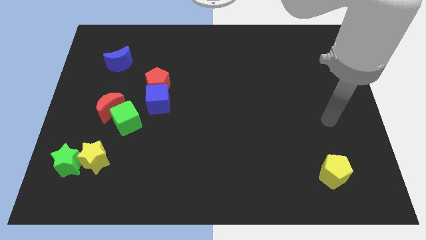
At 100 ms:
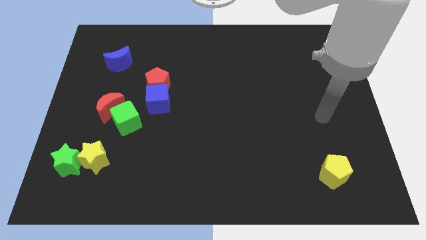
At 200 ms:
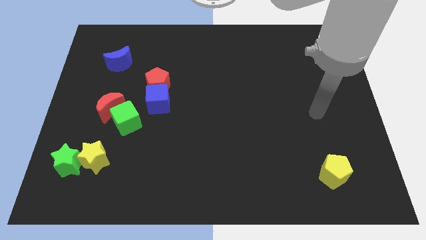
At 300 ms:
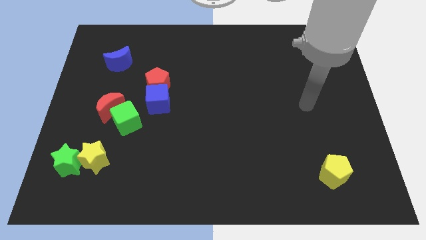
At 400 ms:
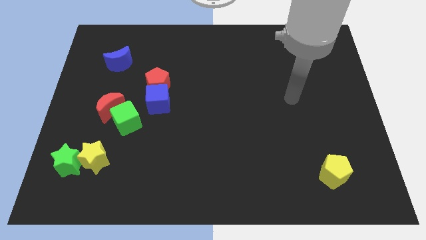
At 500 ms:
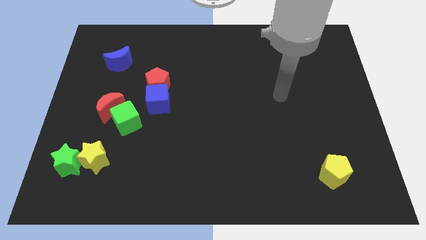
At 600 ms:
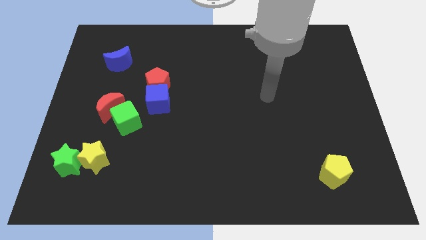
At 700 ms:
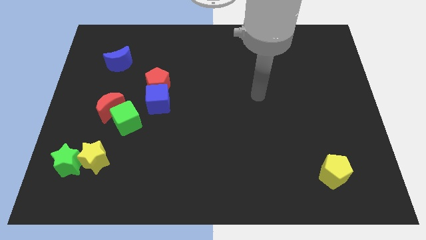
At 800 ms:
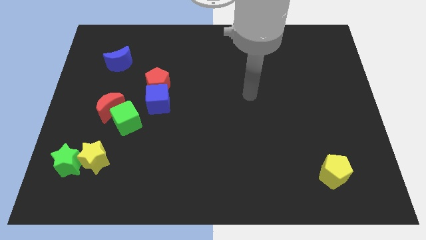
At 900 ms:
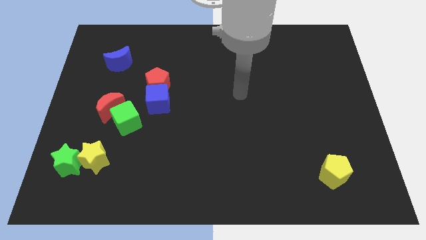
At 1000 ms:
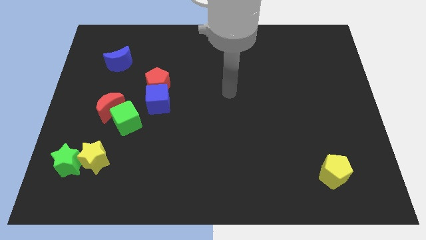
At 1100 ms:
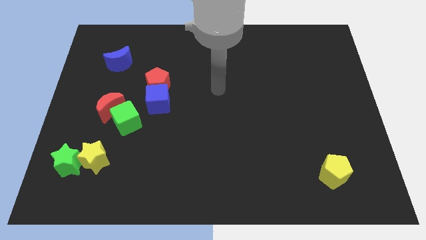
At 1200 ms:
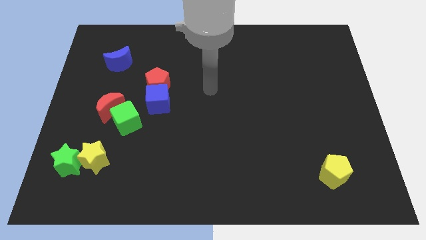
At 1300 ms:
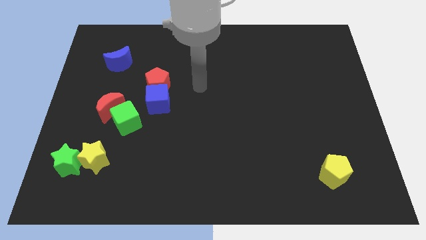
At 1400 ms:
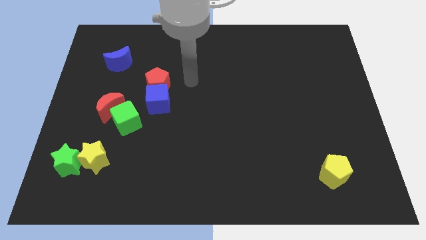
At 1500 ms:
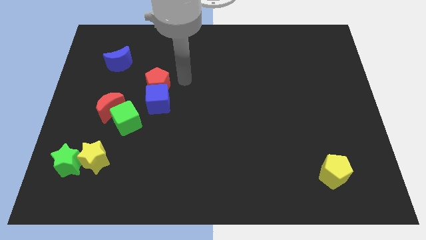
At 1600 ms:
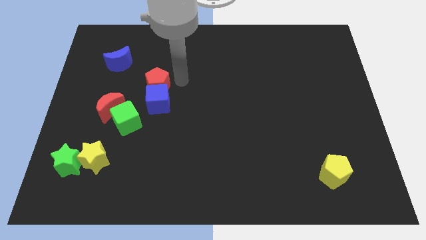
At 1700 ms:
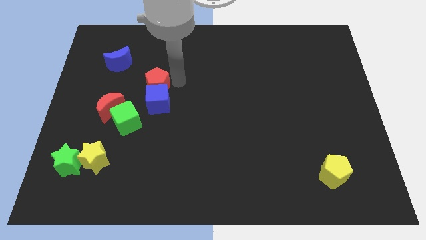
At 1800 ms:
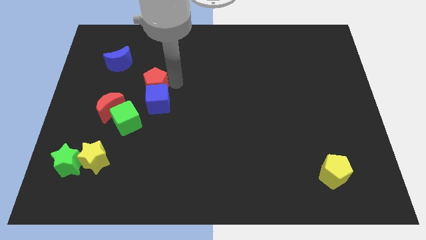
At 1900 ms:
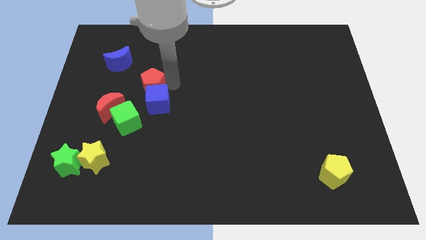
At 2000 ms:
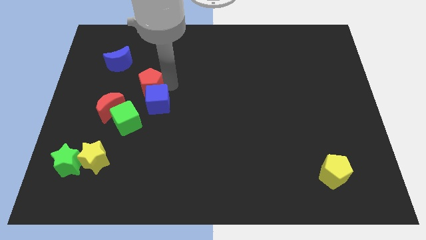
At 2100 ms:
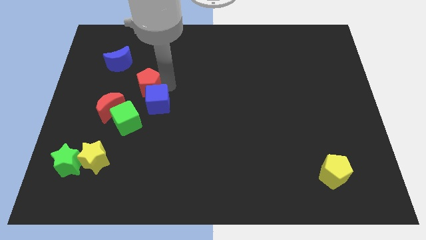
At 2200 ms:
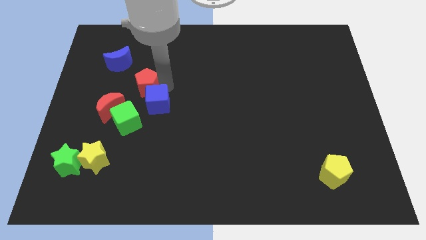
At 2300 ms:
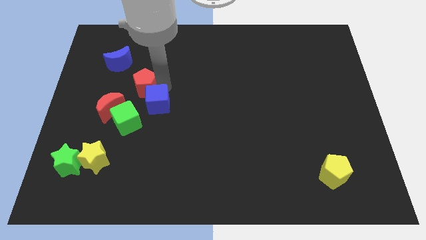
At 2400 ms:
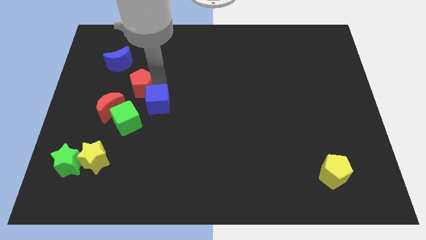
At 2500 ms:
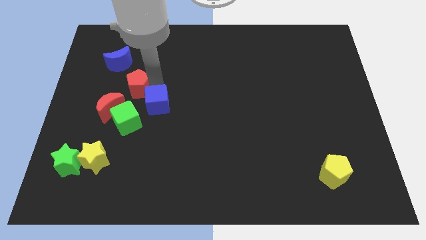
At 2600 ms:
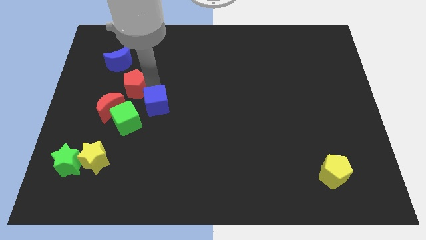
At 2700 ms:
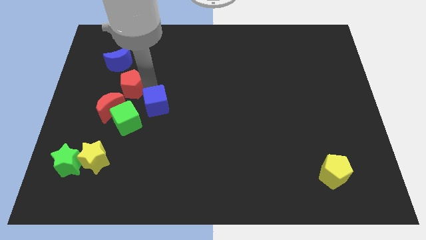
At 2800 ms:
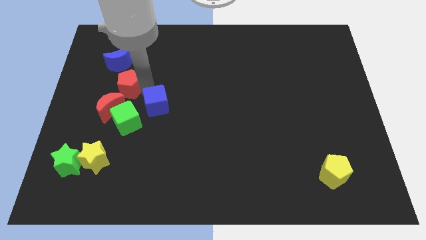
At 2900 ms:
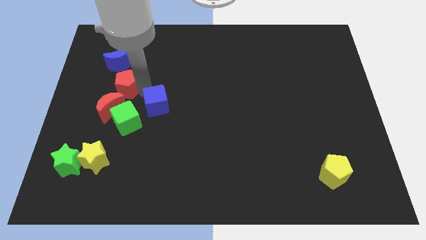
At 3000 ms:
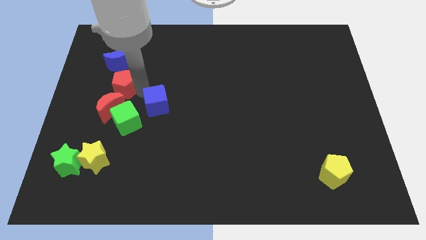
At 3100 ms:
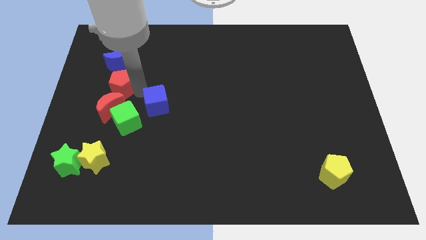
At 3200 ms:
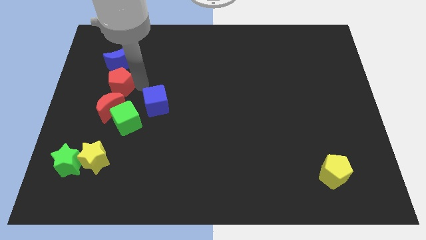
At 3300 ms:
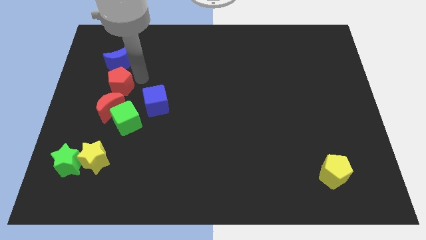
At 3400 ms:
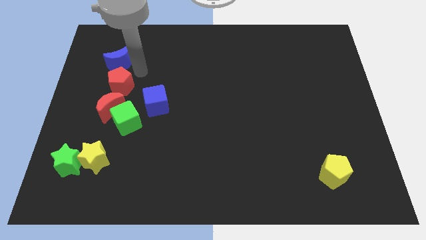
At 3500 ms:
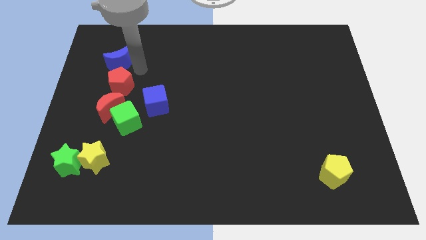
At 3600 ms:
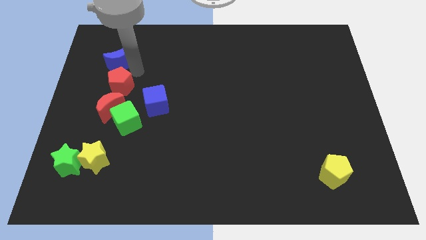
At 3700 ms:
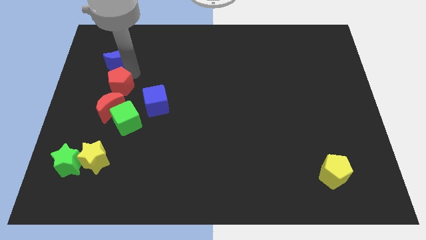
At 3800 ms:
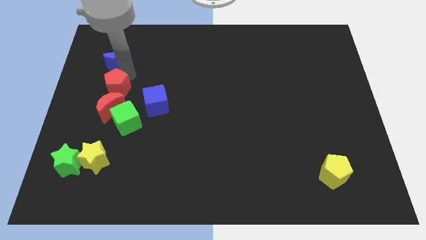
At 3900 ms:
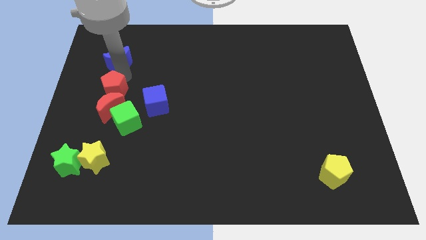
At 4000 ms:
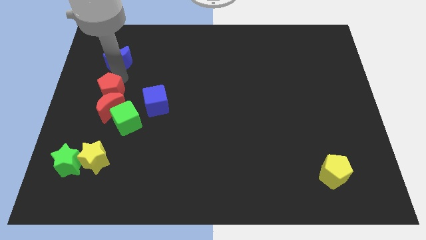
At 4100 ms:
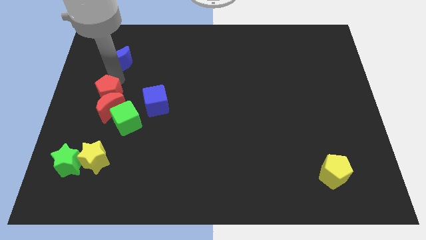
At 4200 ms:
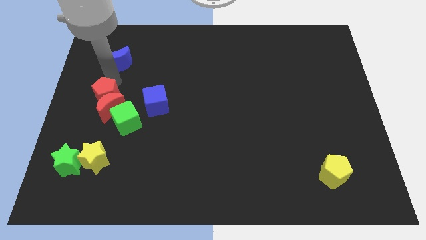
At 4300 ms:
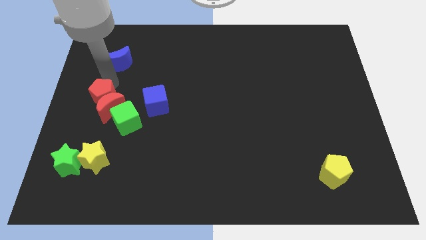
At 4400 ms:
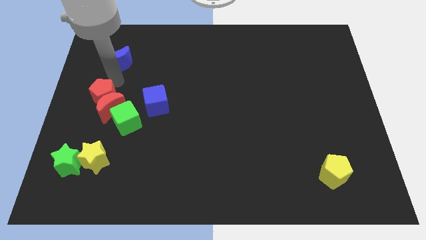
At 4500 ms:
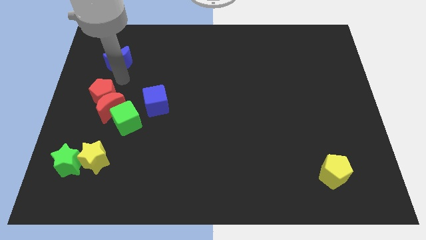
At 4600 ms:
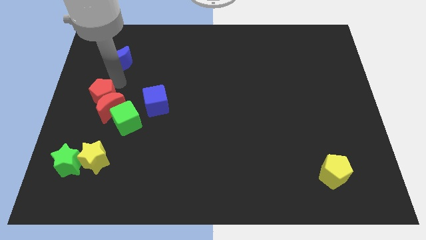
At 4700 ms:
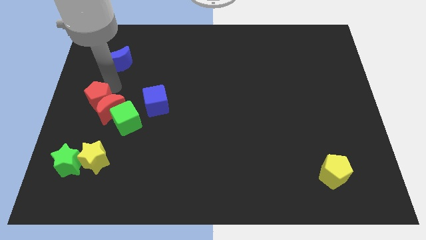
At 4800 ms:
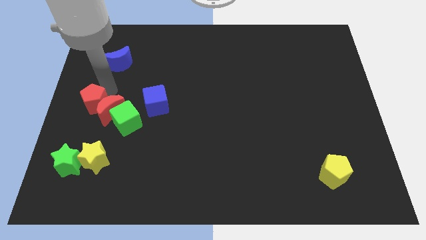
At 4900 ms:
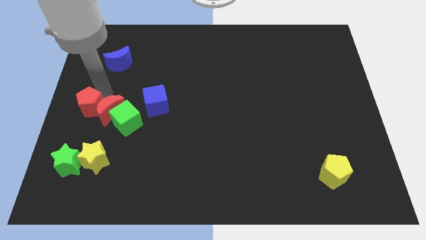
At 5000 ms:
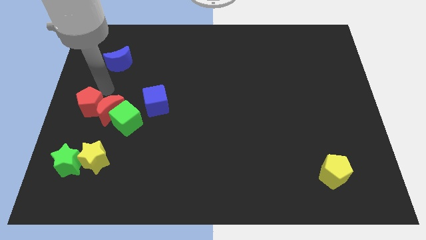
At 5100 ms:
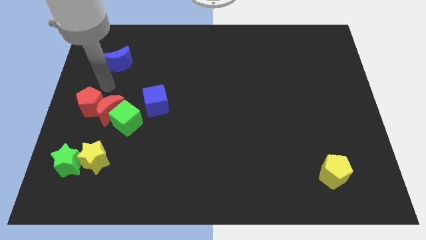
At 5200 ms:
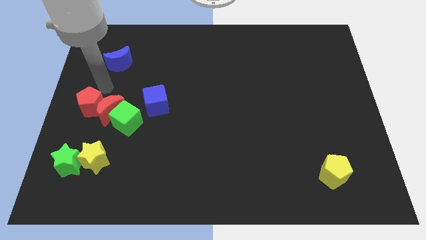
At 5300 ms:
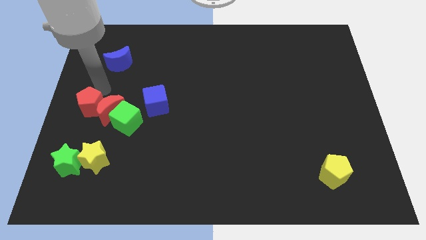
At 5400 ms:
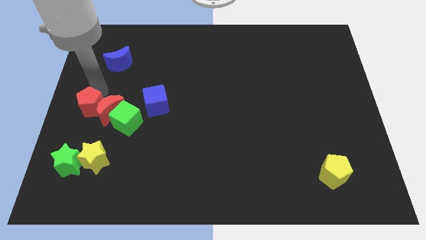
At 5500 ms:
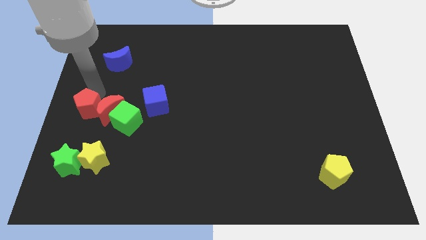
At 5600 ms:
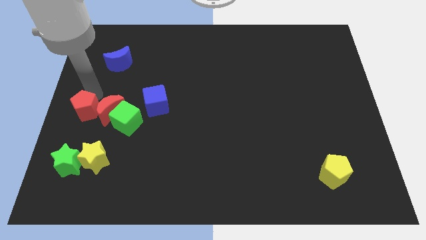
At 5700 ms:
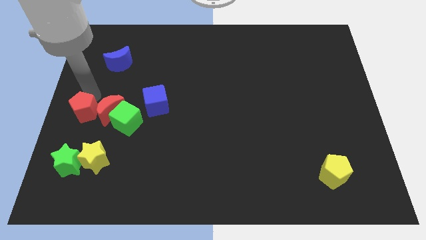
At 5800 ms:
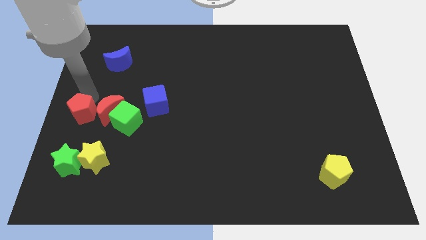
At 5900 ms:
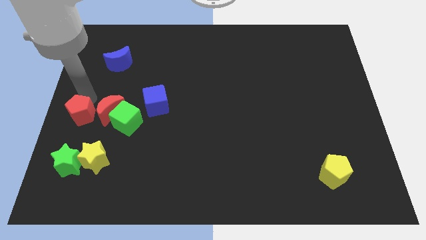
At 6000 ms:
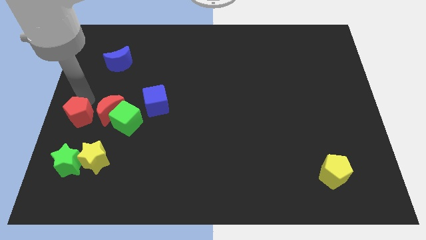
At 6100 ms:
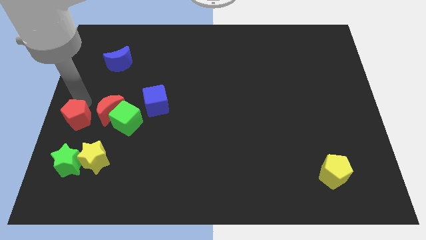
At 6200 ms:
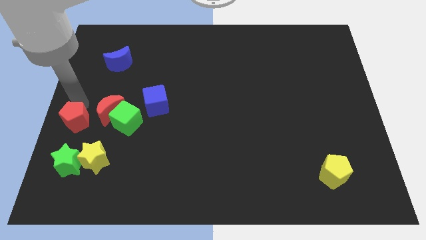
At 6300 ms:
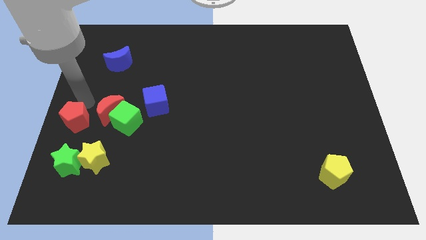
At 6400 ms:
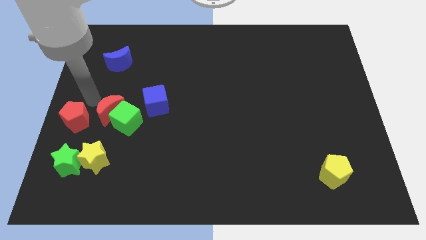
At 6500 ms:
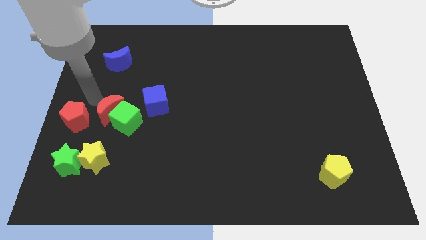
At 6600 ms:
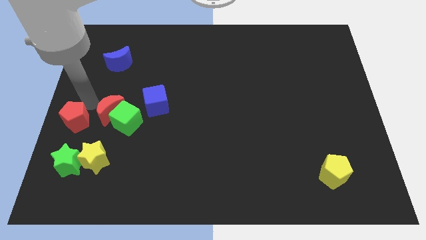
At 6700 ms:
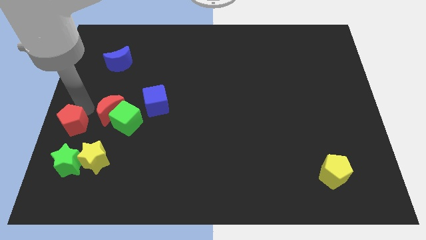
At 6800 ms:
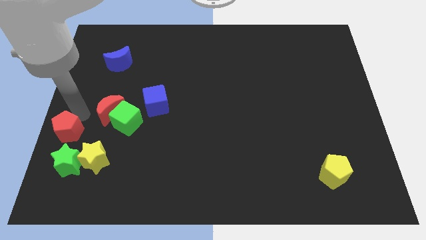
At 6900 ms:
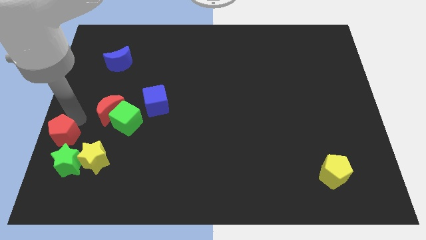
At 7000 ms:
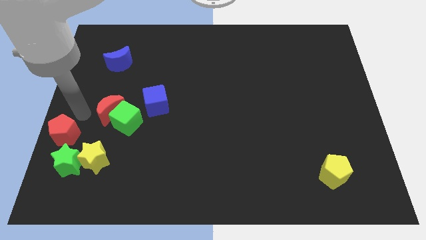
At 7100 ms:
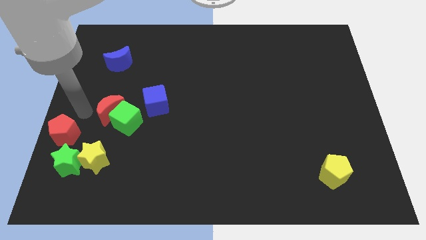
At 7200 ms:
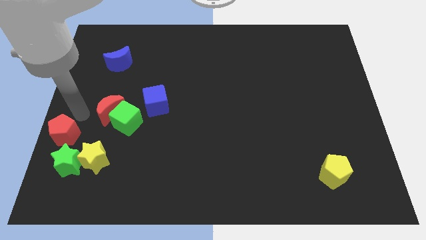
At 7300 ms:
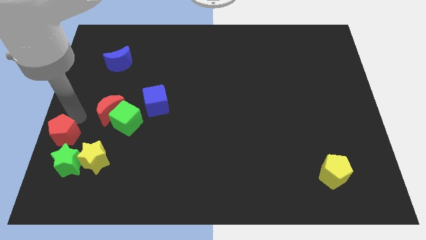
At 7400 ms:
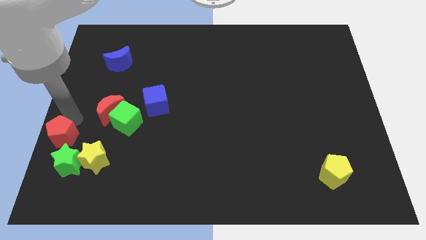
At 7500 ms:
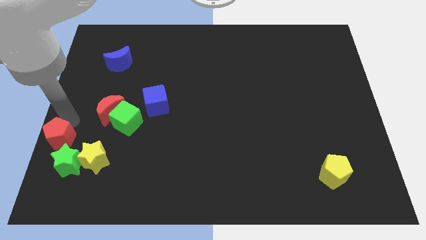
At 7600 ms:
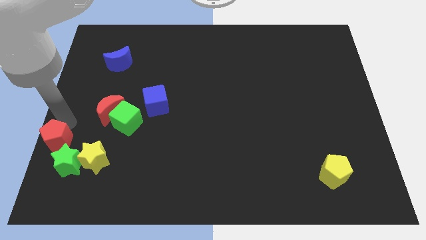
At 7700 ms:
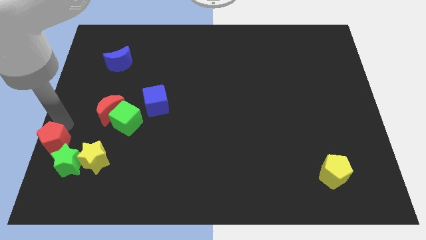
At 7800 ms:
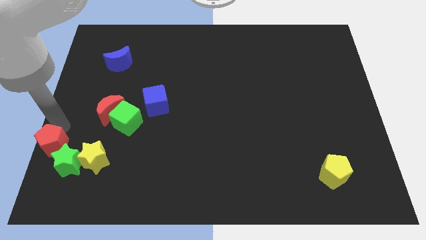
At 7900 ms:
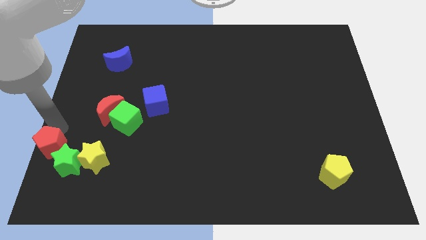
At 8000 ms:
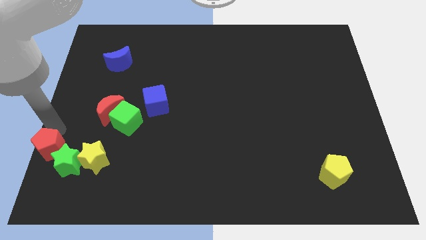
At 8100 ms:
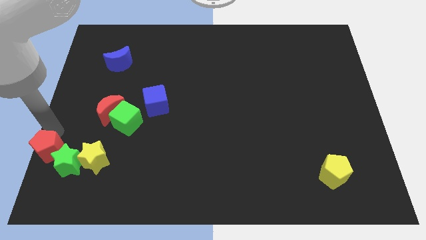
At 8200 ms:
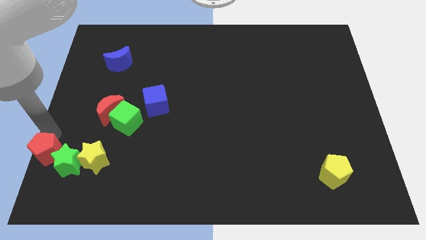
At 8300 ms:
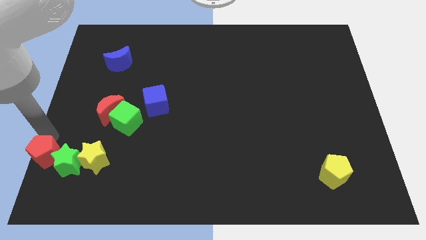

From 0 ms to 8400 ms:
push the red pentagon to the bottom left
